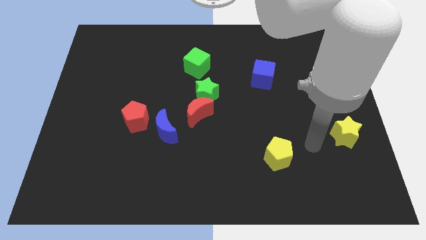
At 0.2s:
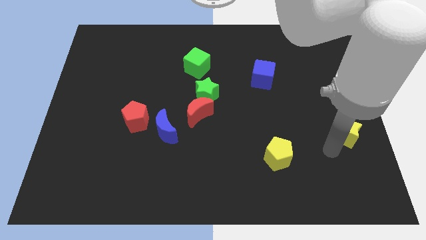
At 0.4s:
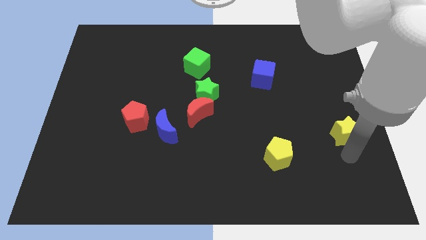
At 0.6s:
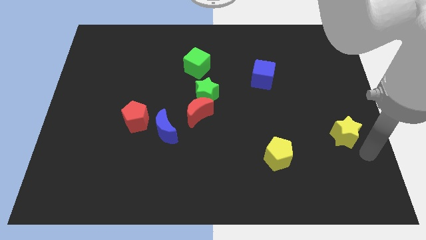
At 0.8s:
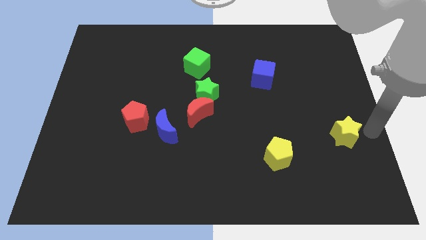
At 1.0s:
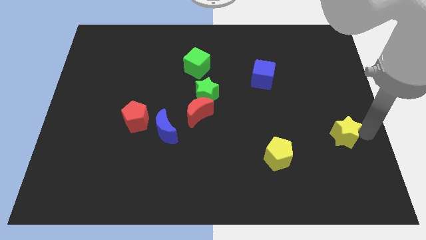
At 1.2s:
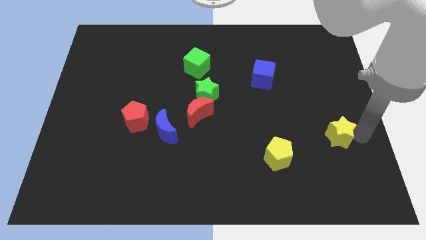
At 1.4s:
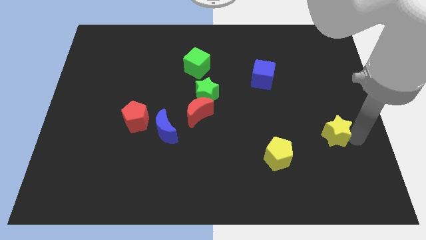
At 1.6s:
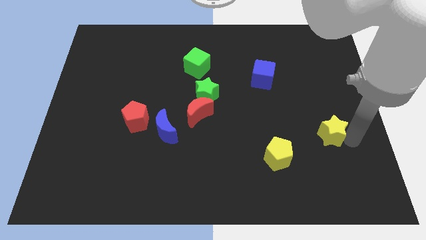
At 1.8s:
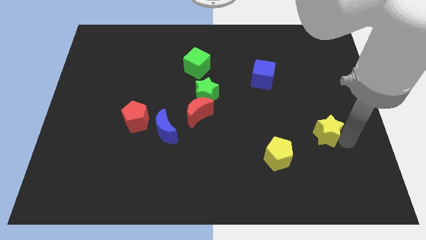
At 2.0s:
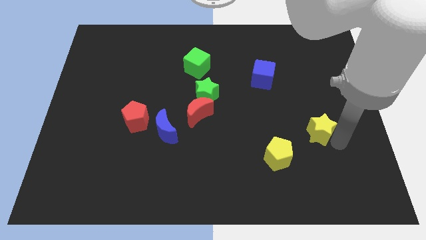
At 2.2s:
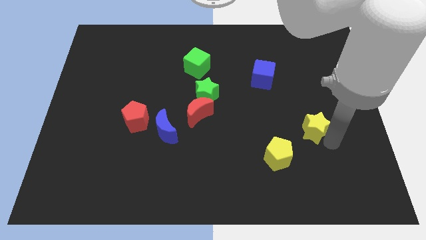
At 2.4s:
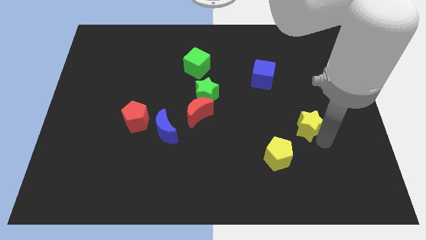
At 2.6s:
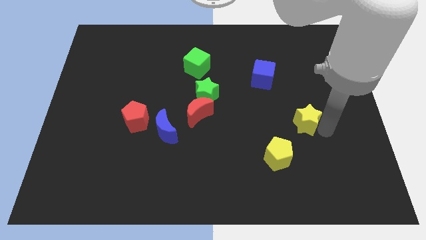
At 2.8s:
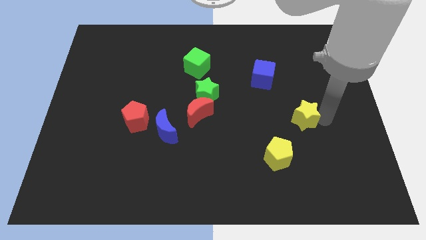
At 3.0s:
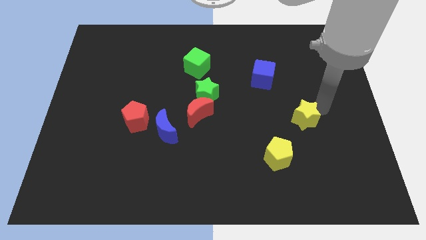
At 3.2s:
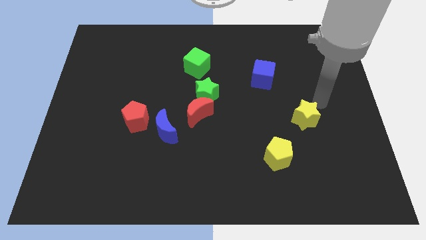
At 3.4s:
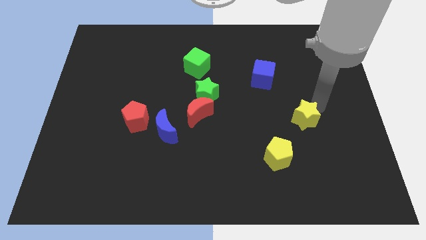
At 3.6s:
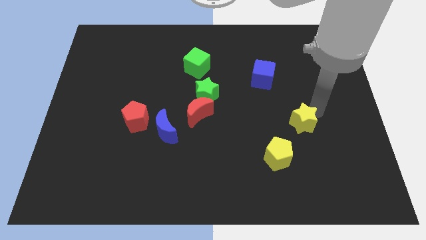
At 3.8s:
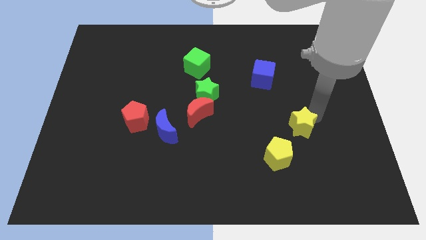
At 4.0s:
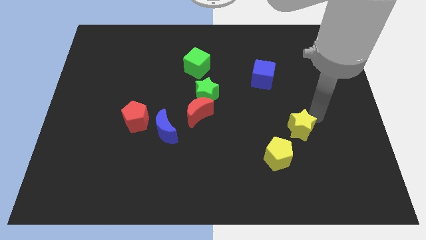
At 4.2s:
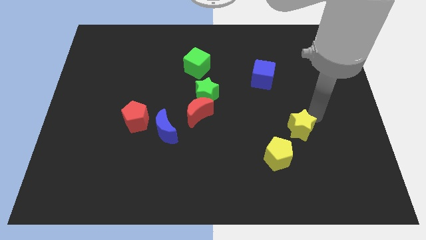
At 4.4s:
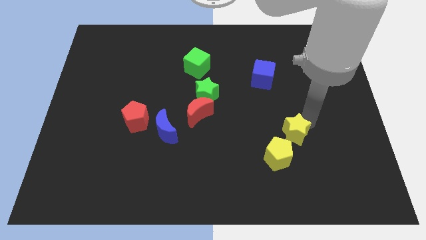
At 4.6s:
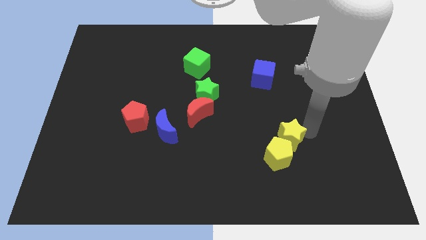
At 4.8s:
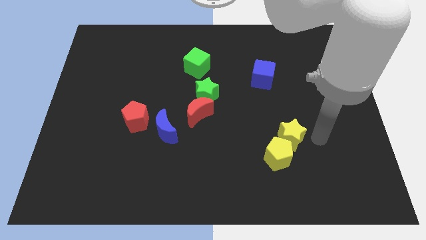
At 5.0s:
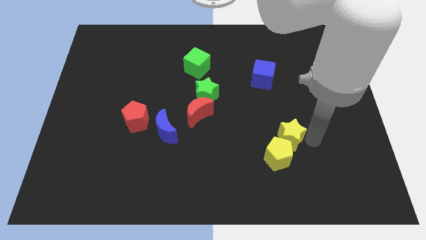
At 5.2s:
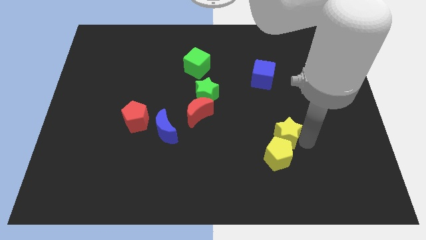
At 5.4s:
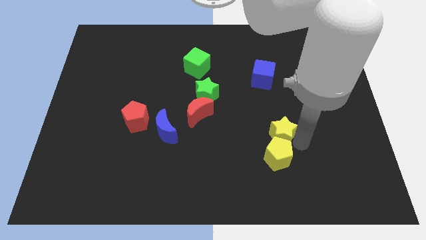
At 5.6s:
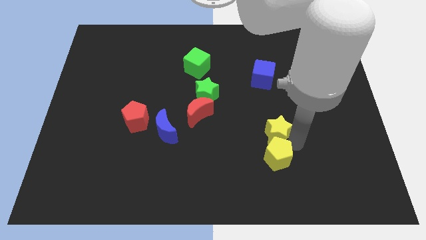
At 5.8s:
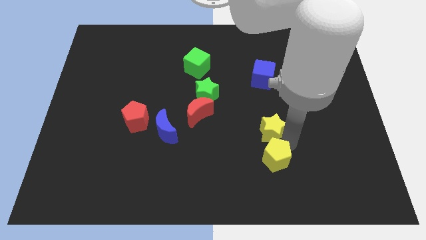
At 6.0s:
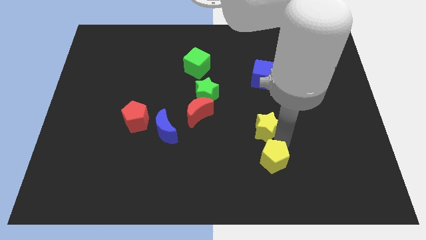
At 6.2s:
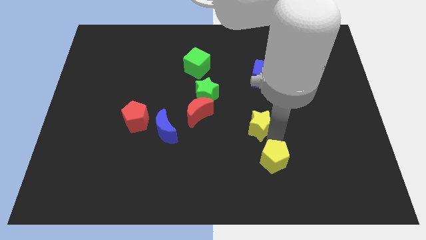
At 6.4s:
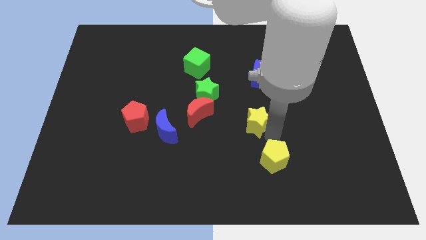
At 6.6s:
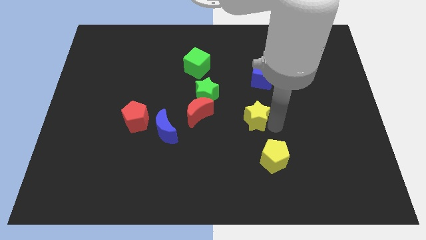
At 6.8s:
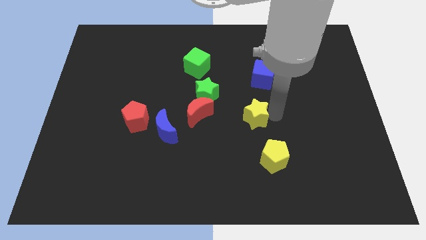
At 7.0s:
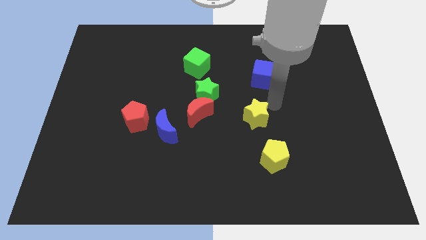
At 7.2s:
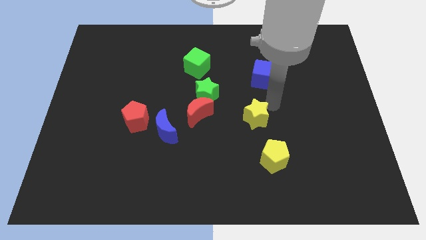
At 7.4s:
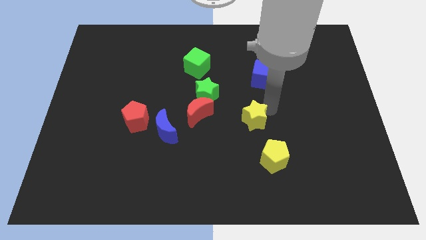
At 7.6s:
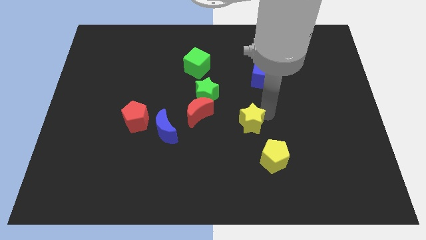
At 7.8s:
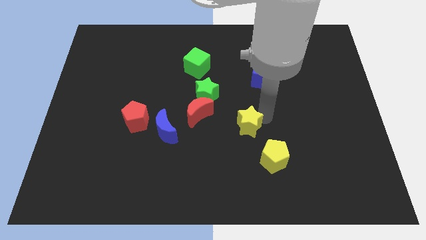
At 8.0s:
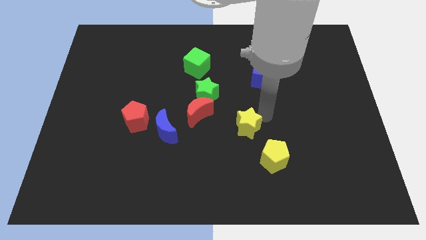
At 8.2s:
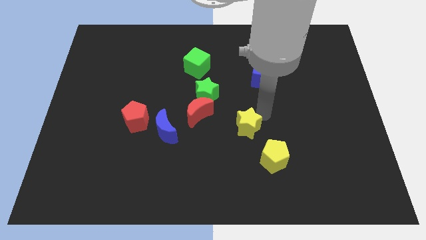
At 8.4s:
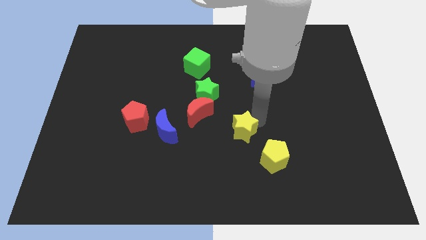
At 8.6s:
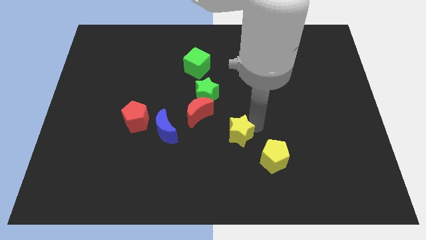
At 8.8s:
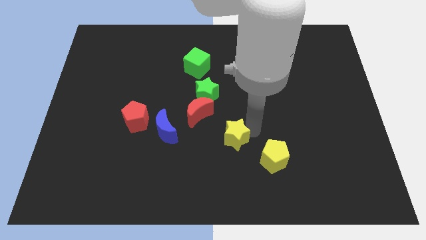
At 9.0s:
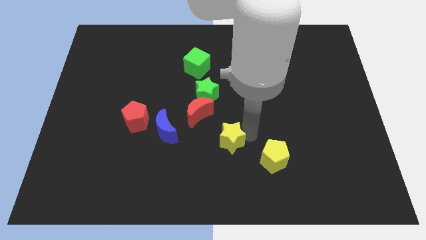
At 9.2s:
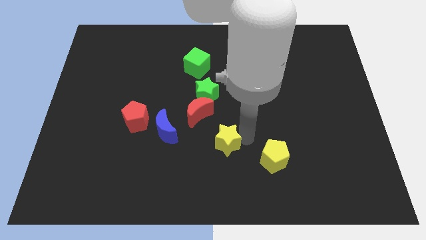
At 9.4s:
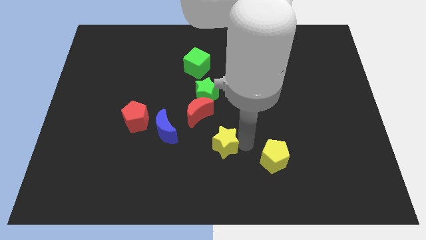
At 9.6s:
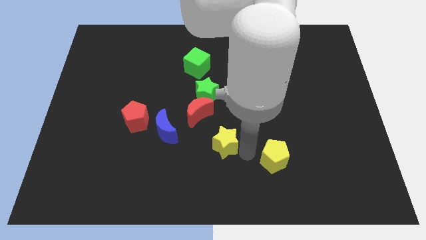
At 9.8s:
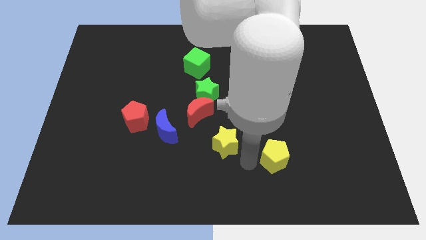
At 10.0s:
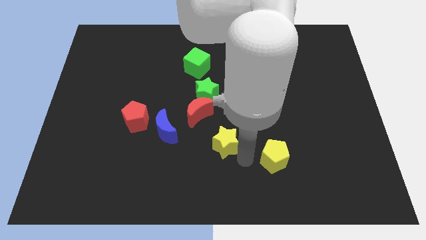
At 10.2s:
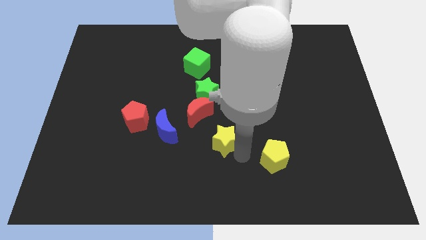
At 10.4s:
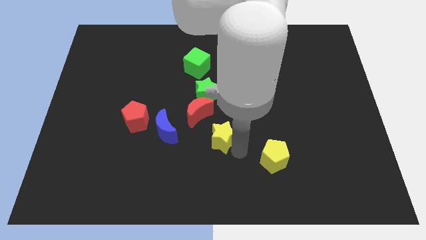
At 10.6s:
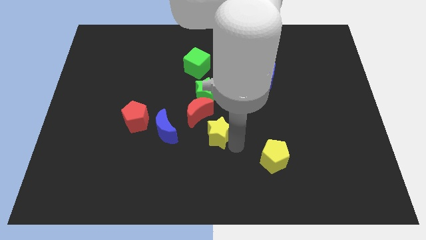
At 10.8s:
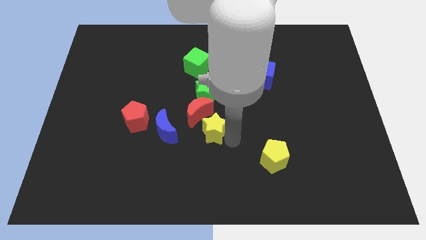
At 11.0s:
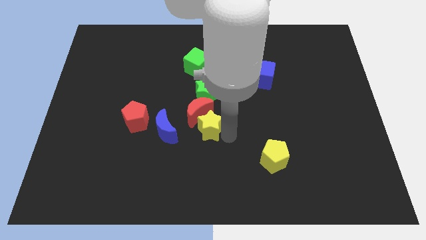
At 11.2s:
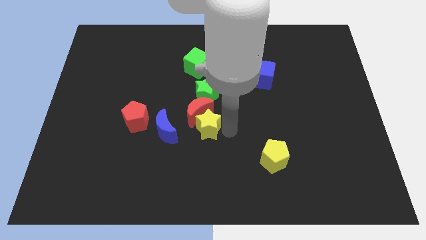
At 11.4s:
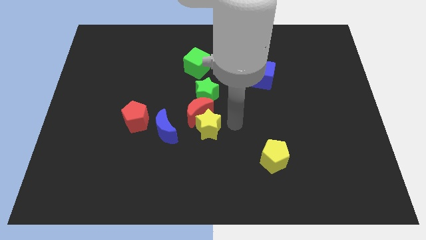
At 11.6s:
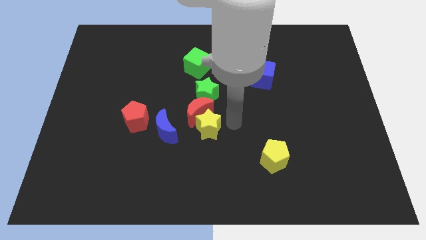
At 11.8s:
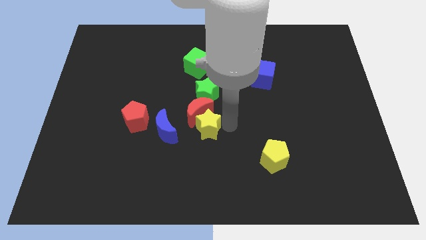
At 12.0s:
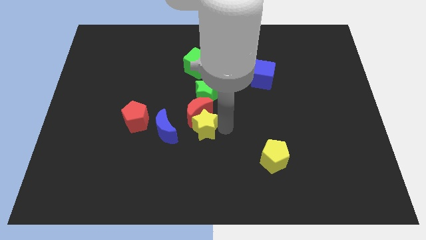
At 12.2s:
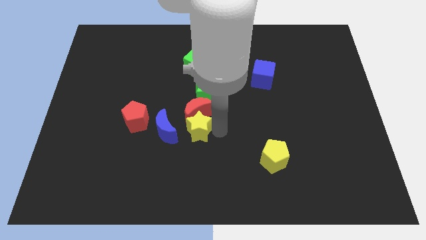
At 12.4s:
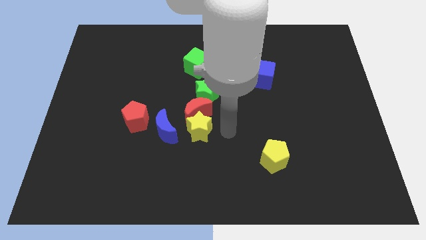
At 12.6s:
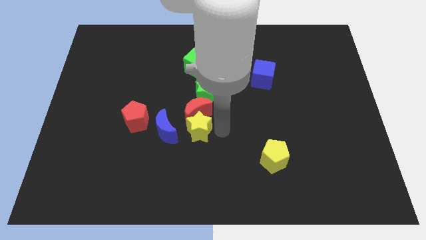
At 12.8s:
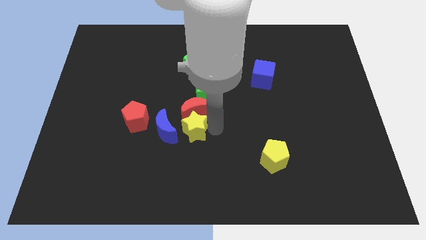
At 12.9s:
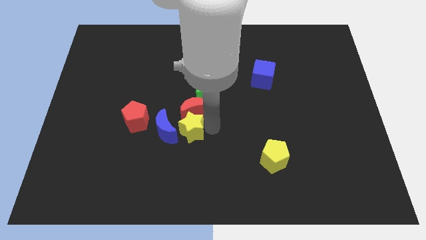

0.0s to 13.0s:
push the yellow star to the blue moon

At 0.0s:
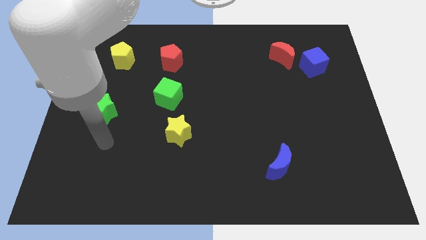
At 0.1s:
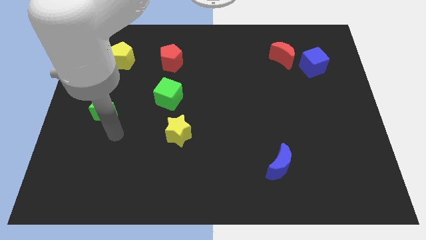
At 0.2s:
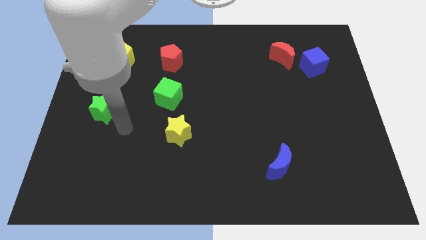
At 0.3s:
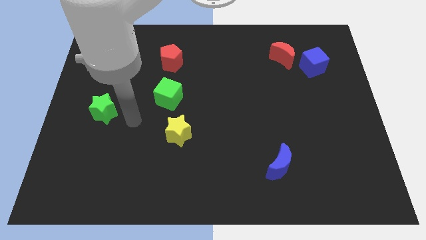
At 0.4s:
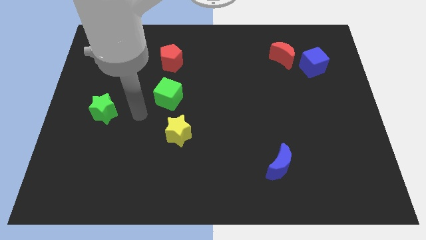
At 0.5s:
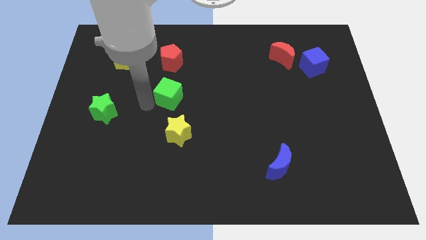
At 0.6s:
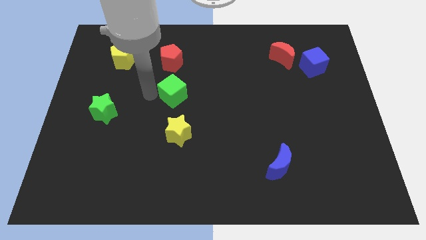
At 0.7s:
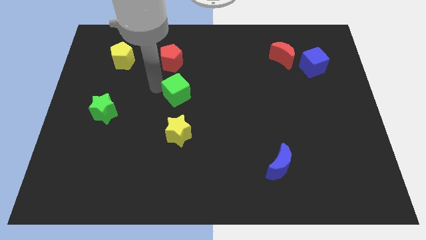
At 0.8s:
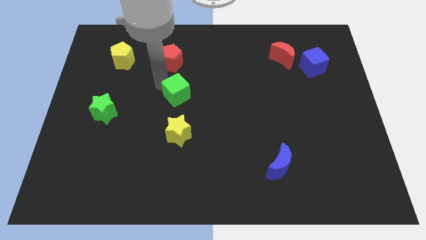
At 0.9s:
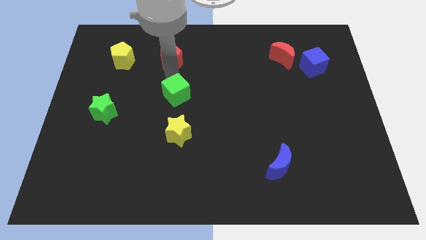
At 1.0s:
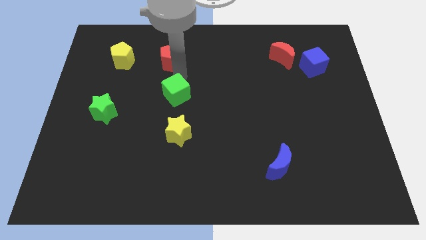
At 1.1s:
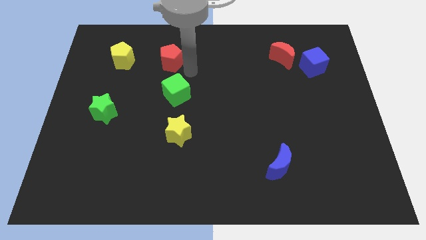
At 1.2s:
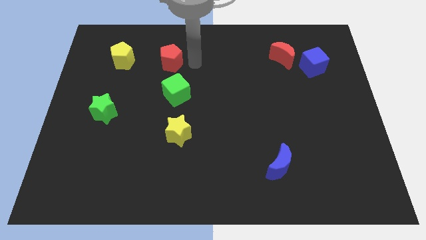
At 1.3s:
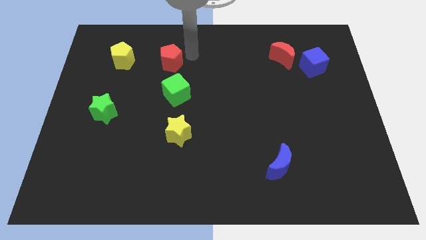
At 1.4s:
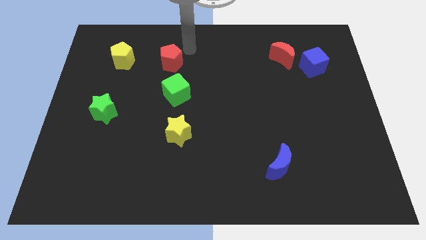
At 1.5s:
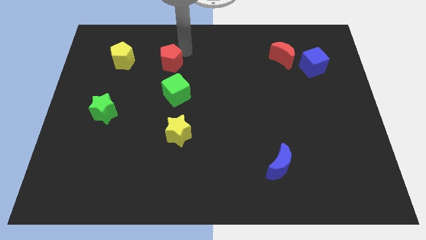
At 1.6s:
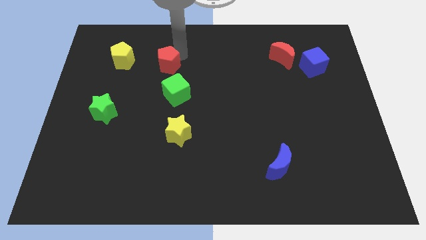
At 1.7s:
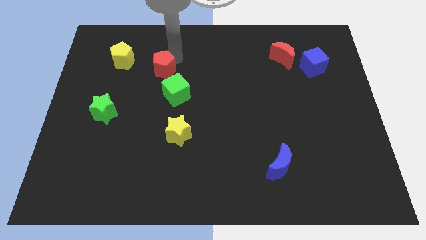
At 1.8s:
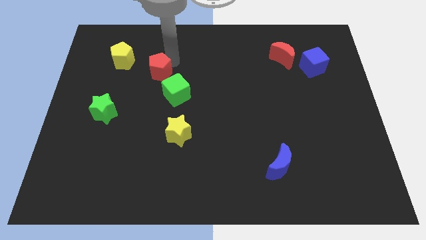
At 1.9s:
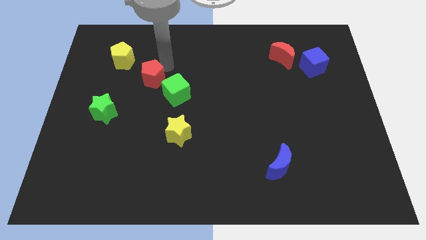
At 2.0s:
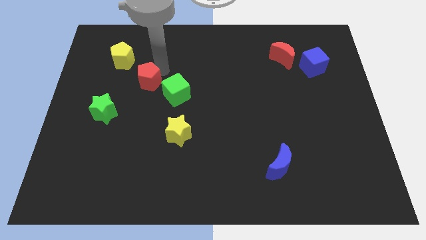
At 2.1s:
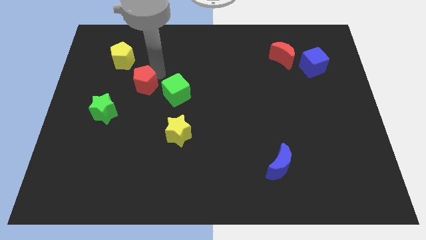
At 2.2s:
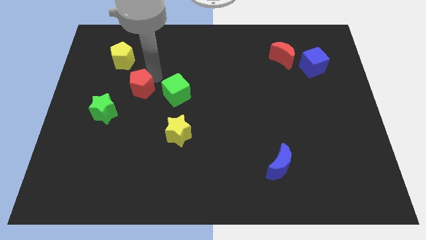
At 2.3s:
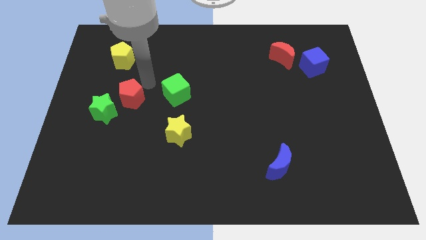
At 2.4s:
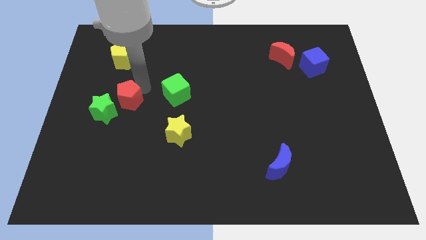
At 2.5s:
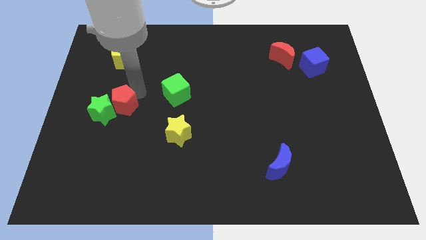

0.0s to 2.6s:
slide the red pentagon towards the green star
